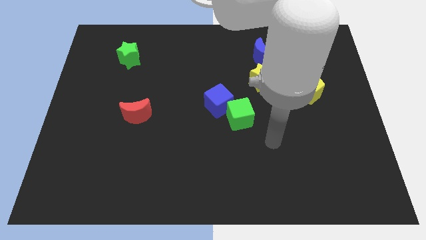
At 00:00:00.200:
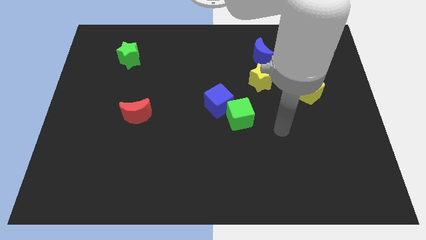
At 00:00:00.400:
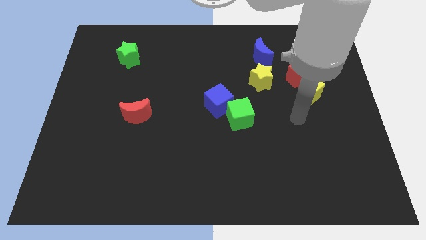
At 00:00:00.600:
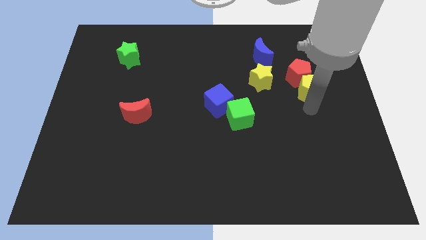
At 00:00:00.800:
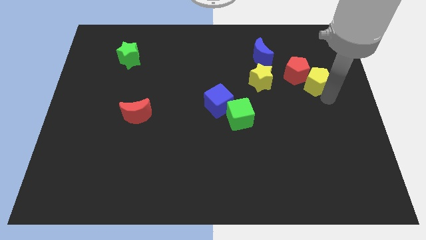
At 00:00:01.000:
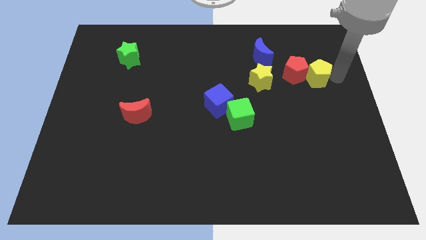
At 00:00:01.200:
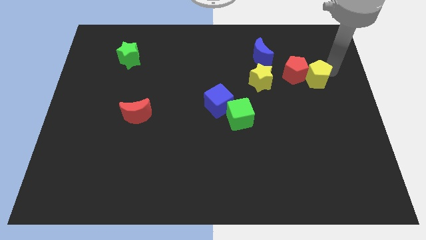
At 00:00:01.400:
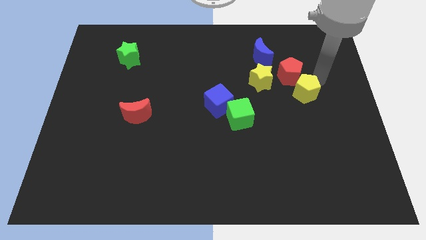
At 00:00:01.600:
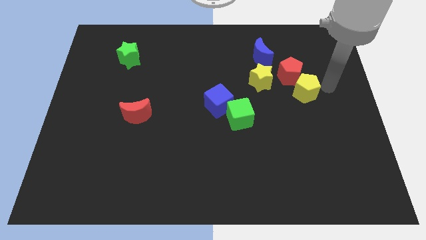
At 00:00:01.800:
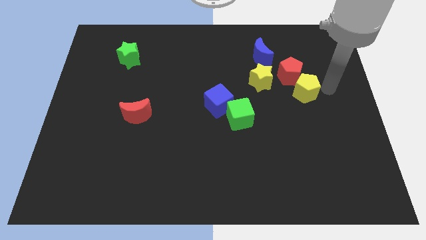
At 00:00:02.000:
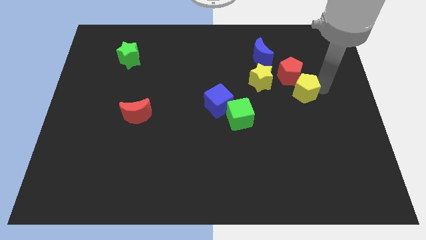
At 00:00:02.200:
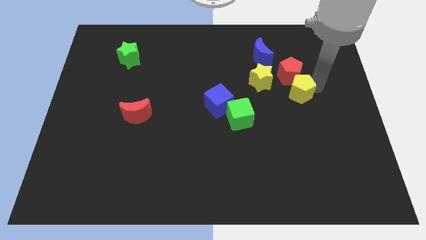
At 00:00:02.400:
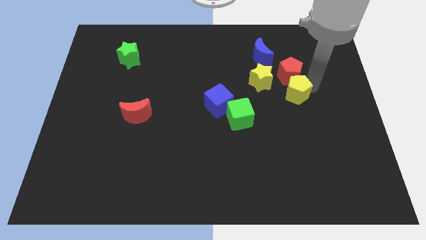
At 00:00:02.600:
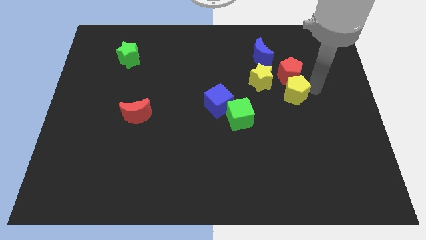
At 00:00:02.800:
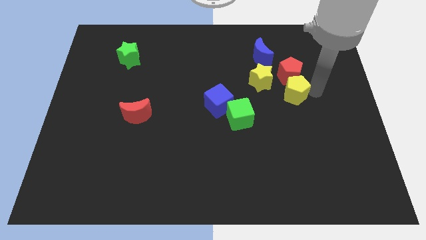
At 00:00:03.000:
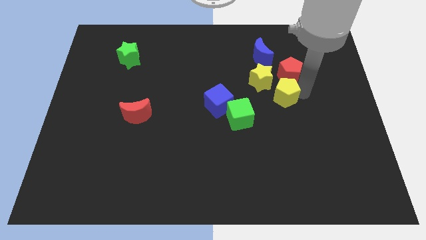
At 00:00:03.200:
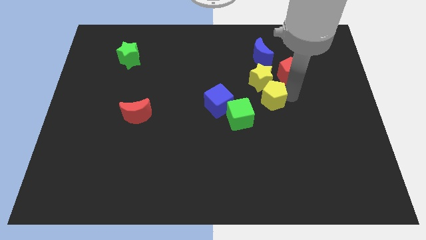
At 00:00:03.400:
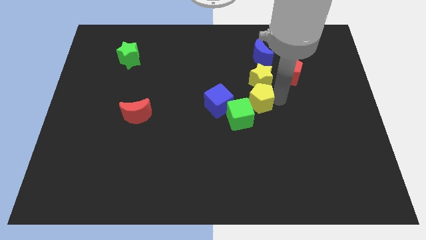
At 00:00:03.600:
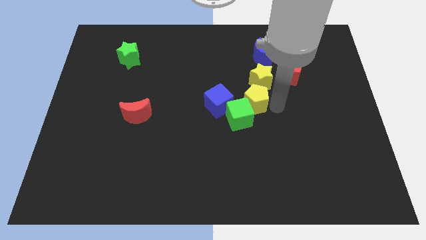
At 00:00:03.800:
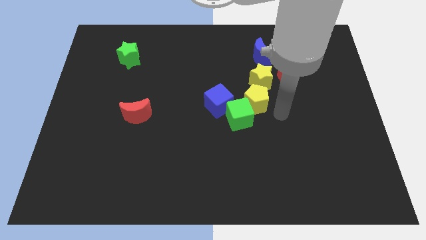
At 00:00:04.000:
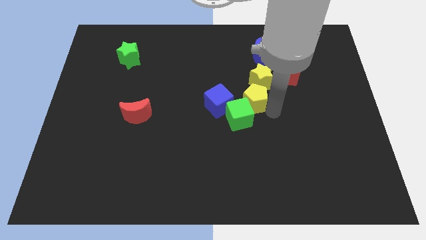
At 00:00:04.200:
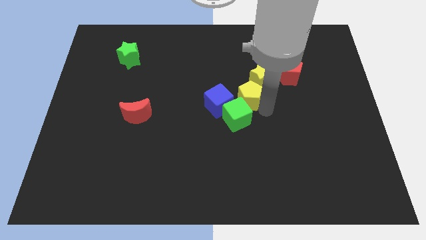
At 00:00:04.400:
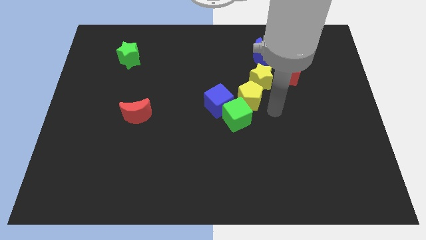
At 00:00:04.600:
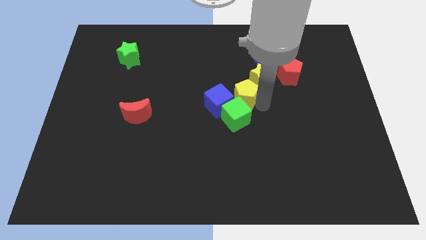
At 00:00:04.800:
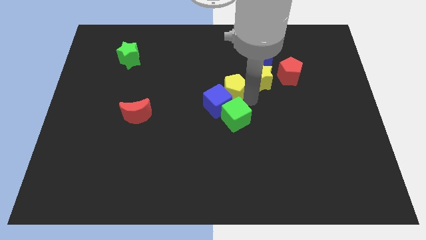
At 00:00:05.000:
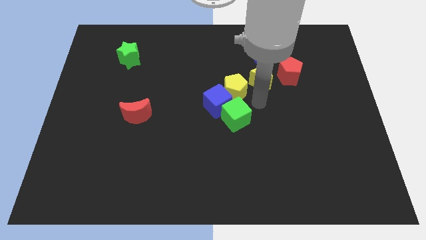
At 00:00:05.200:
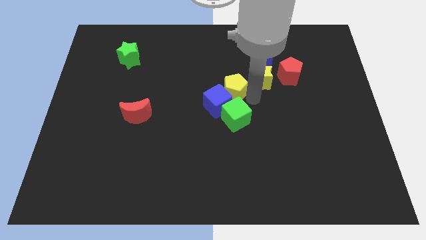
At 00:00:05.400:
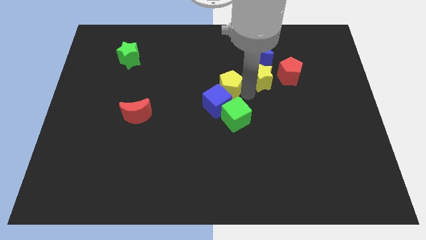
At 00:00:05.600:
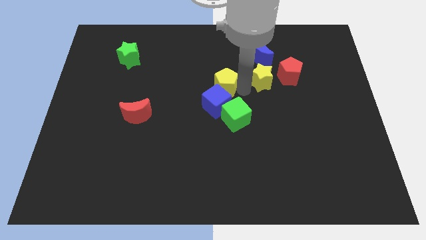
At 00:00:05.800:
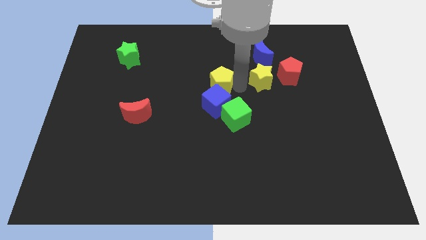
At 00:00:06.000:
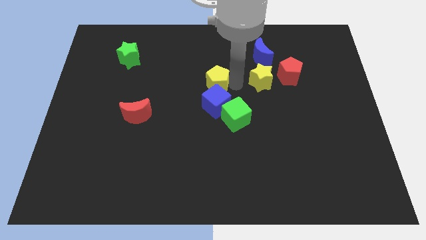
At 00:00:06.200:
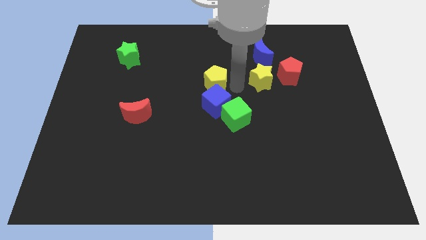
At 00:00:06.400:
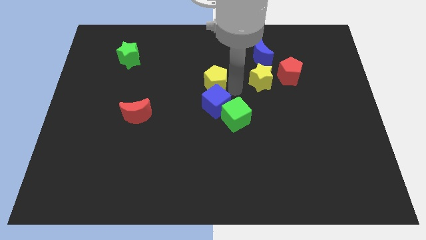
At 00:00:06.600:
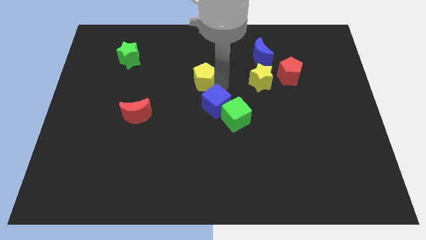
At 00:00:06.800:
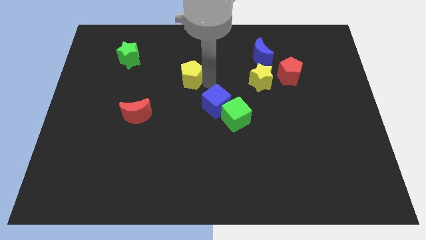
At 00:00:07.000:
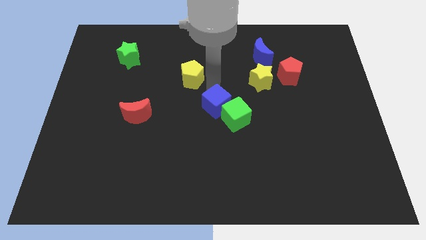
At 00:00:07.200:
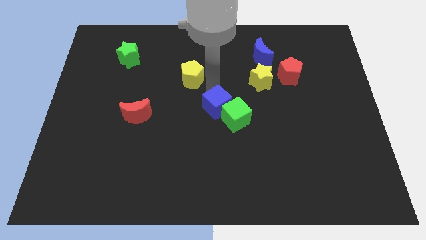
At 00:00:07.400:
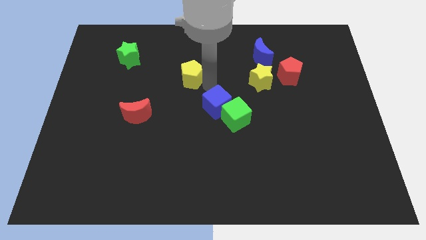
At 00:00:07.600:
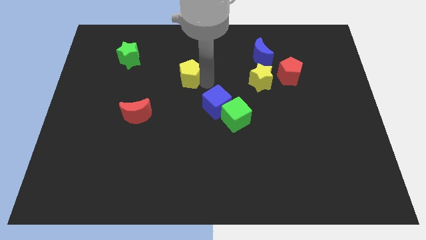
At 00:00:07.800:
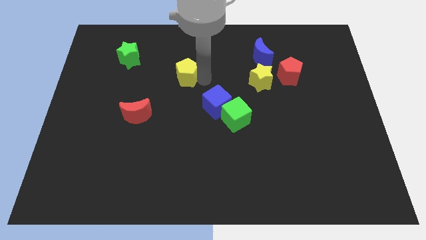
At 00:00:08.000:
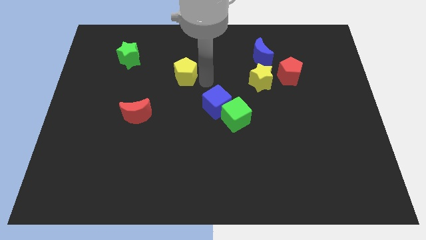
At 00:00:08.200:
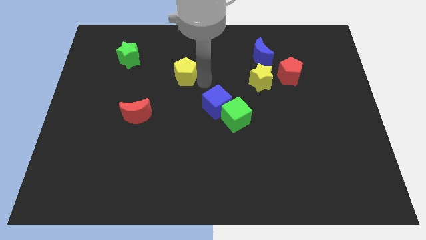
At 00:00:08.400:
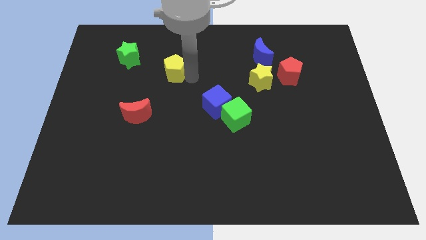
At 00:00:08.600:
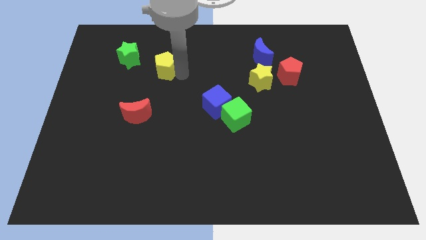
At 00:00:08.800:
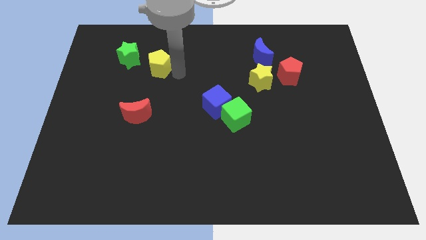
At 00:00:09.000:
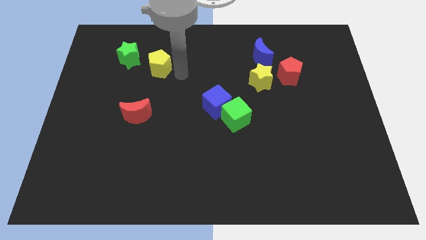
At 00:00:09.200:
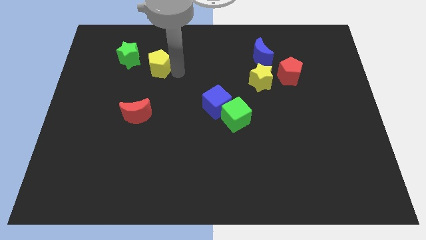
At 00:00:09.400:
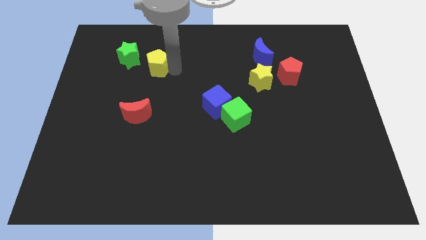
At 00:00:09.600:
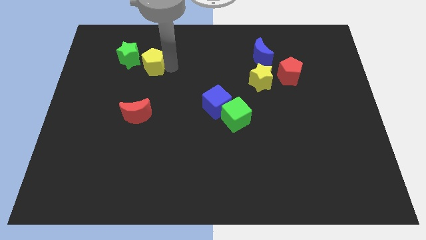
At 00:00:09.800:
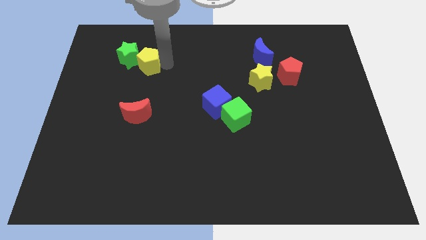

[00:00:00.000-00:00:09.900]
put the yellow pentagon next to the green star

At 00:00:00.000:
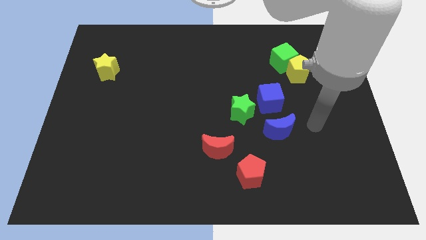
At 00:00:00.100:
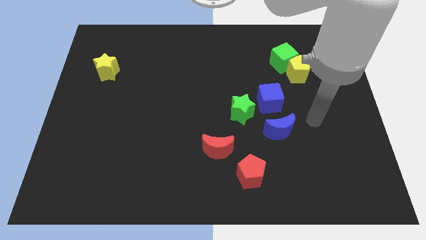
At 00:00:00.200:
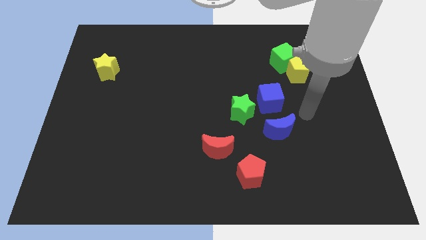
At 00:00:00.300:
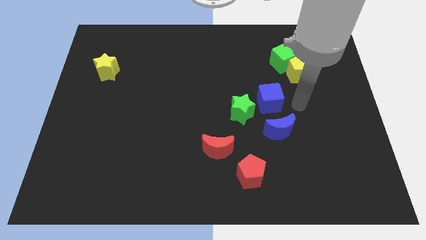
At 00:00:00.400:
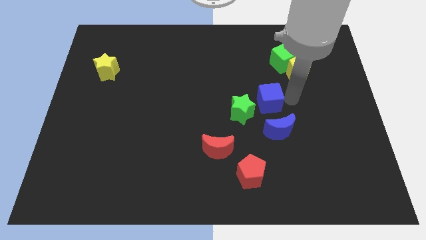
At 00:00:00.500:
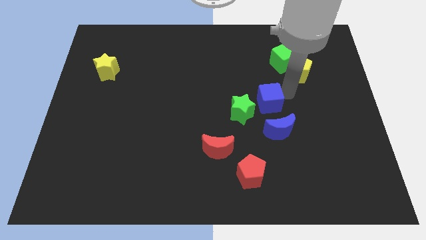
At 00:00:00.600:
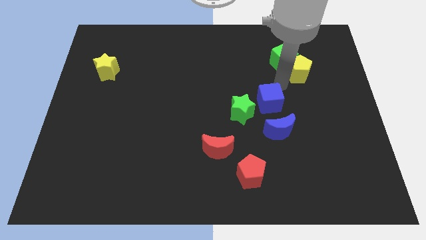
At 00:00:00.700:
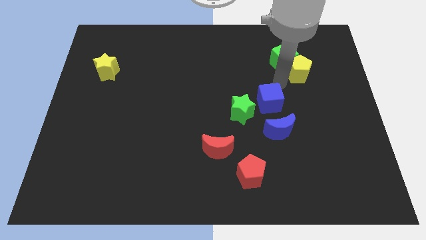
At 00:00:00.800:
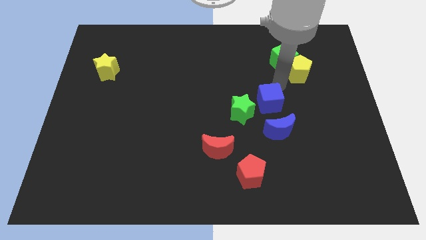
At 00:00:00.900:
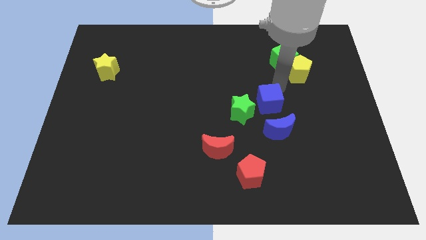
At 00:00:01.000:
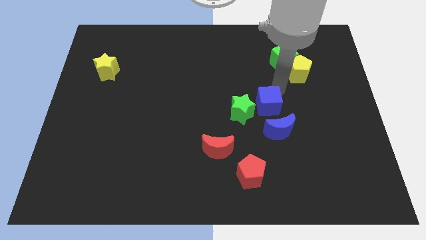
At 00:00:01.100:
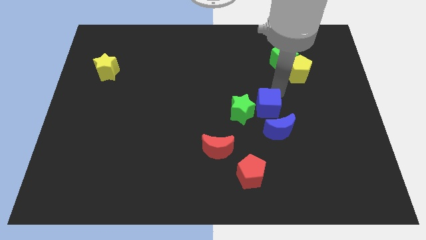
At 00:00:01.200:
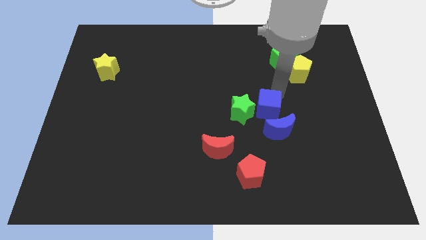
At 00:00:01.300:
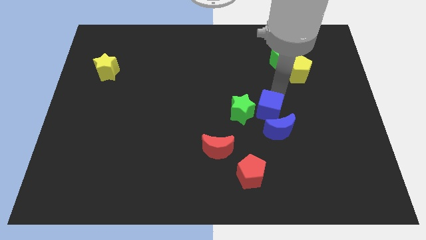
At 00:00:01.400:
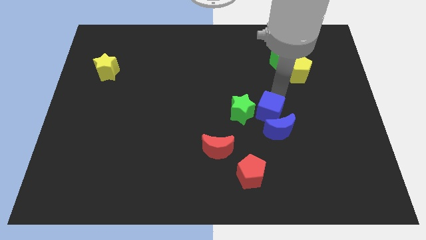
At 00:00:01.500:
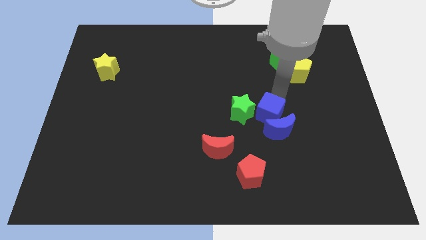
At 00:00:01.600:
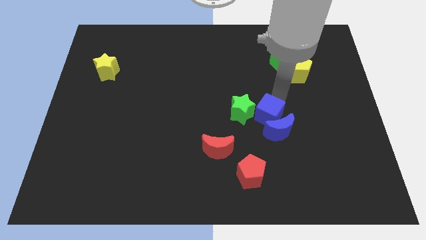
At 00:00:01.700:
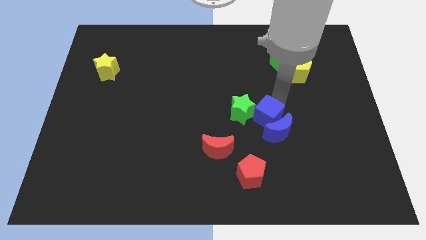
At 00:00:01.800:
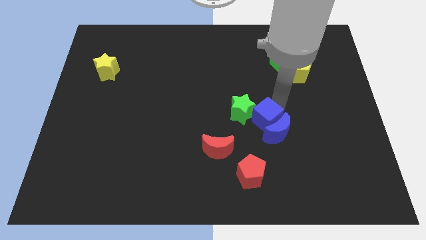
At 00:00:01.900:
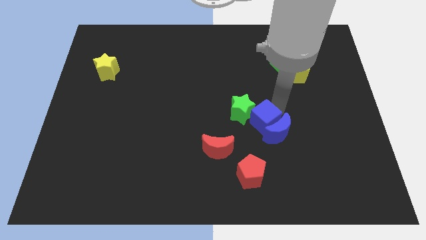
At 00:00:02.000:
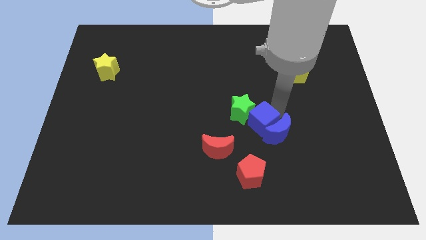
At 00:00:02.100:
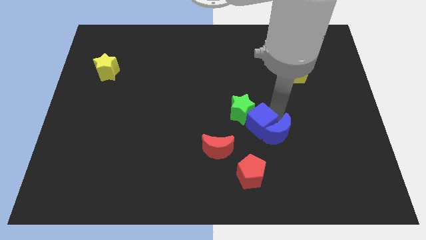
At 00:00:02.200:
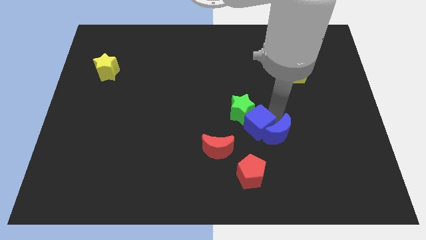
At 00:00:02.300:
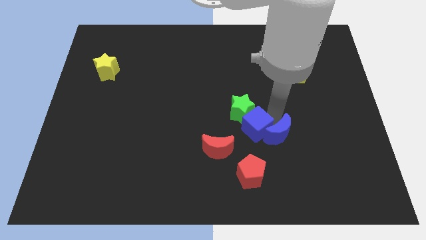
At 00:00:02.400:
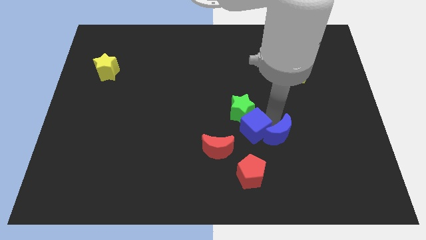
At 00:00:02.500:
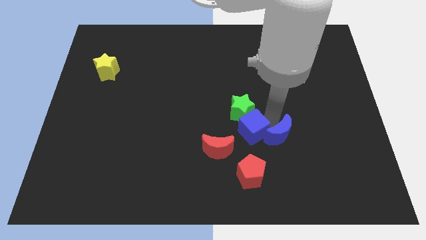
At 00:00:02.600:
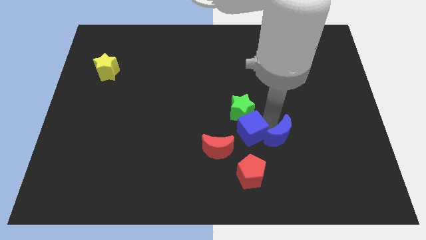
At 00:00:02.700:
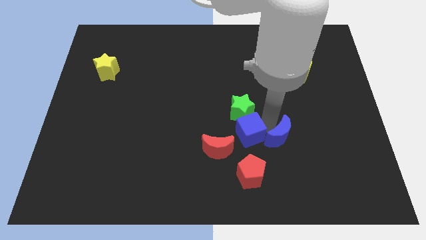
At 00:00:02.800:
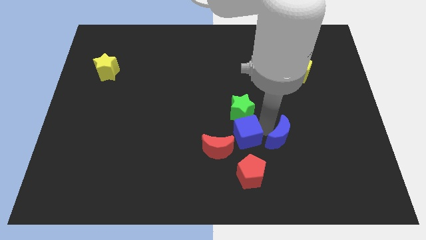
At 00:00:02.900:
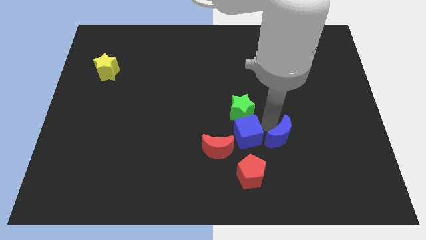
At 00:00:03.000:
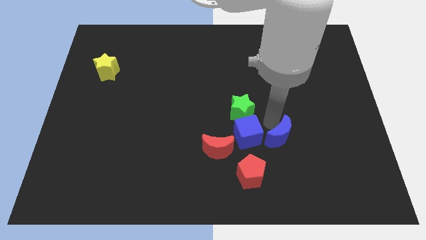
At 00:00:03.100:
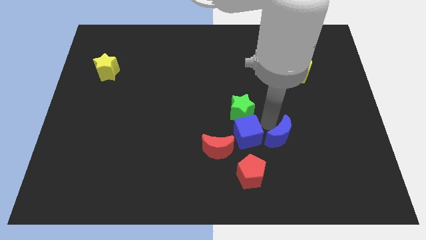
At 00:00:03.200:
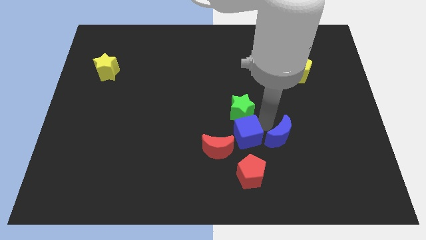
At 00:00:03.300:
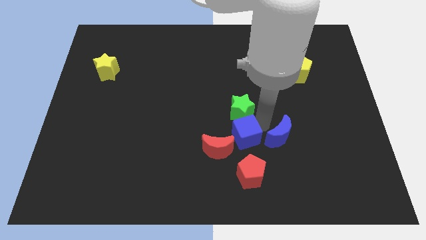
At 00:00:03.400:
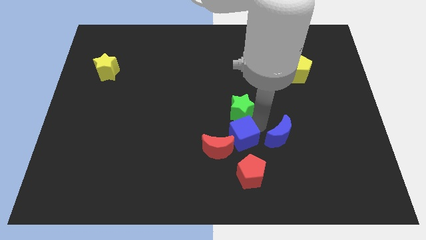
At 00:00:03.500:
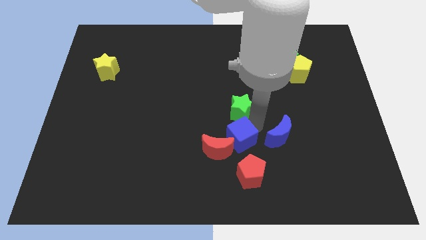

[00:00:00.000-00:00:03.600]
slide the blue cube close to the red moon
